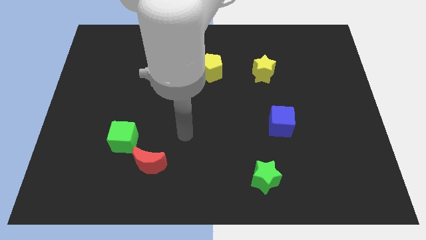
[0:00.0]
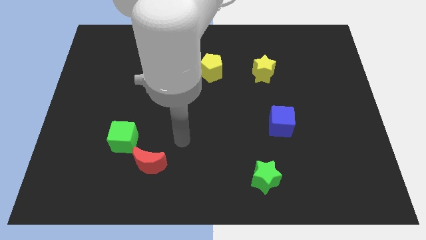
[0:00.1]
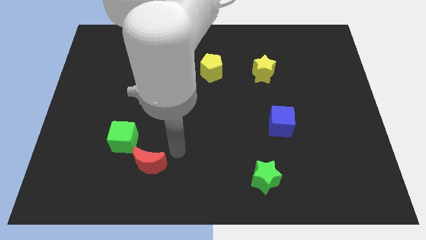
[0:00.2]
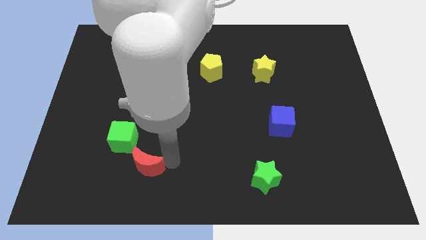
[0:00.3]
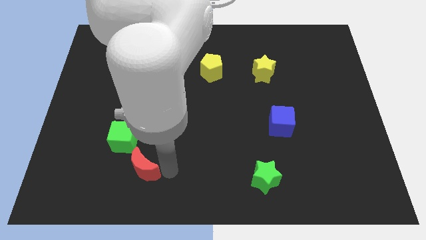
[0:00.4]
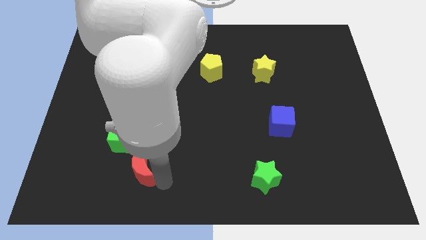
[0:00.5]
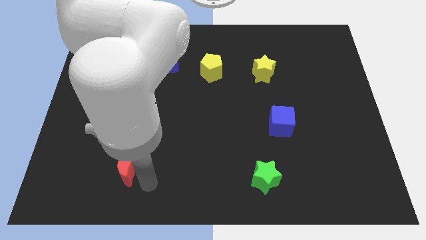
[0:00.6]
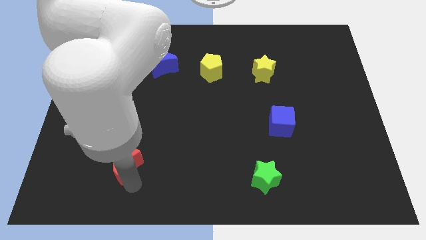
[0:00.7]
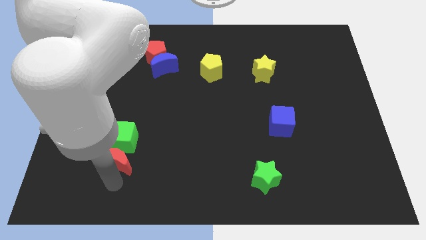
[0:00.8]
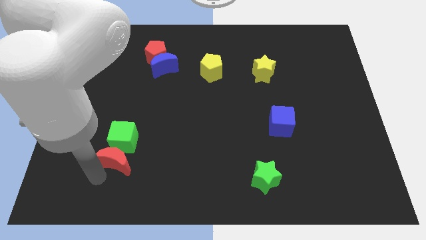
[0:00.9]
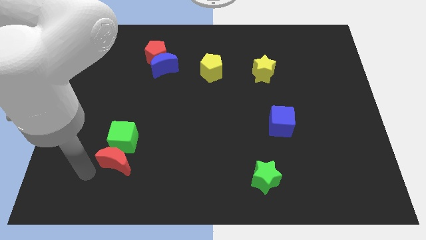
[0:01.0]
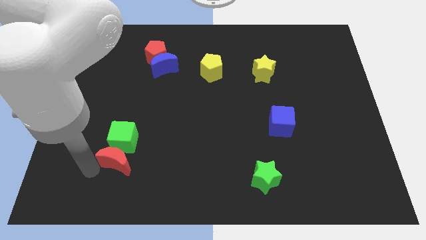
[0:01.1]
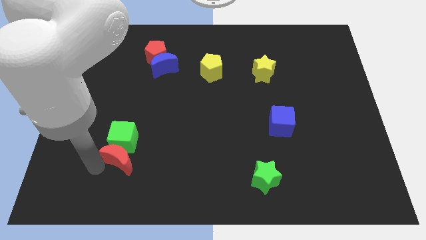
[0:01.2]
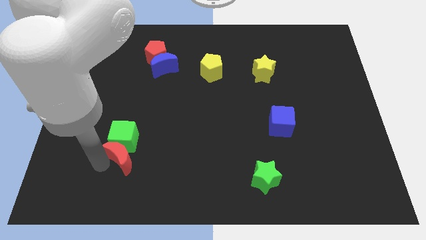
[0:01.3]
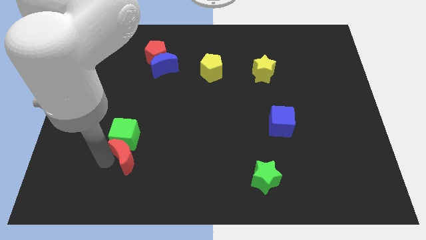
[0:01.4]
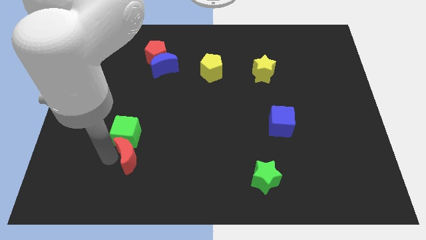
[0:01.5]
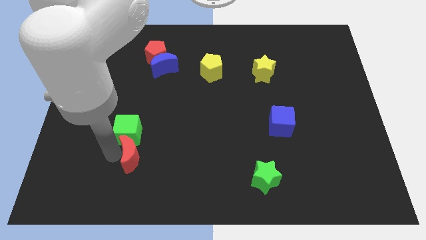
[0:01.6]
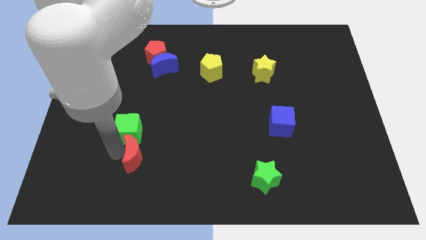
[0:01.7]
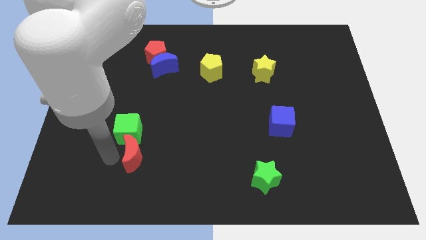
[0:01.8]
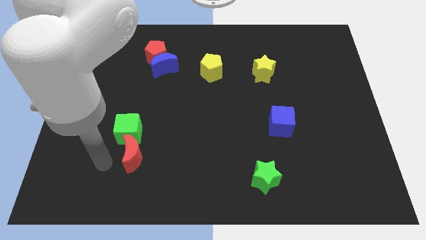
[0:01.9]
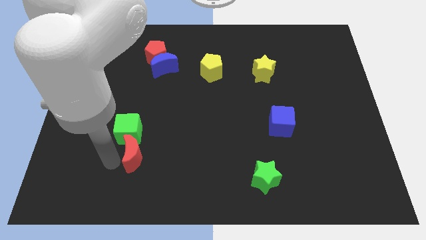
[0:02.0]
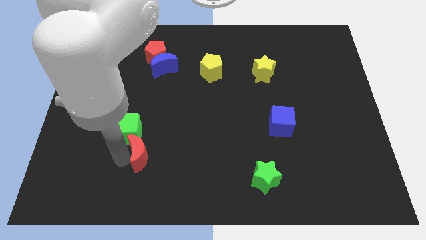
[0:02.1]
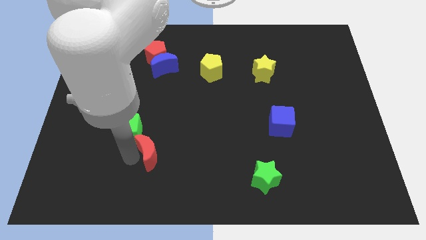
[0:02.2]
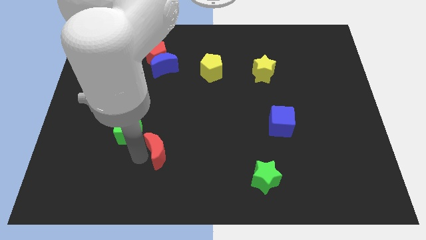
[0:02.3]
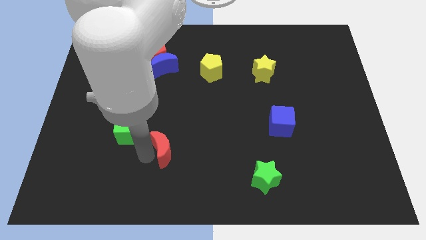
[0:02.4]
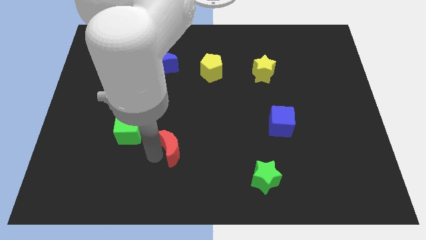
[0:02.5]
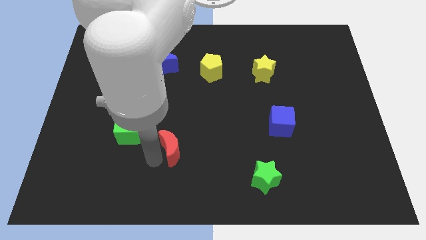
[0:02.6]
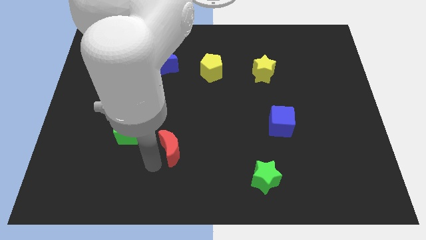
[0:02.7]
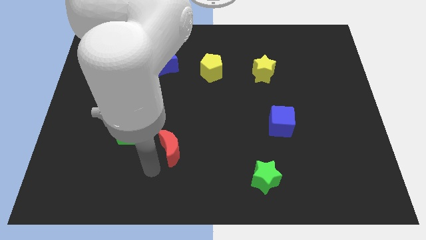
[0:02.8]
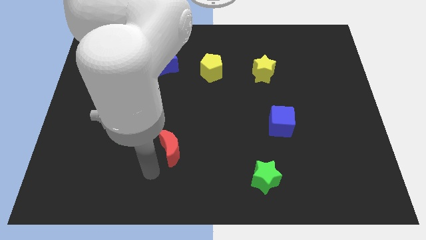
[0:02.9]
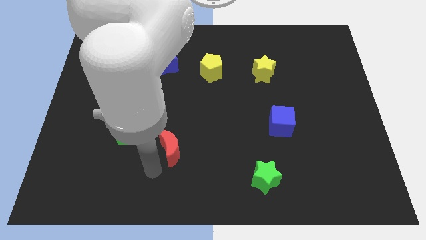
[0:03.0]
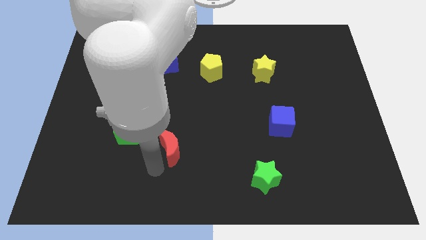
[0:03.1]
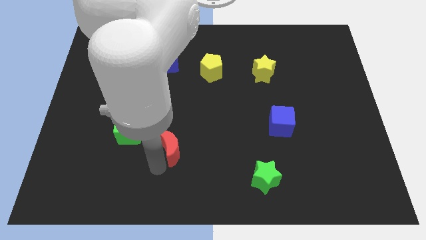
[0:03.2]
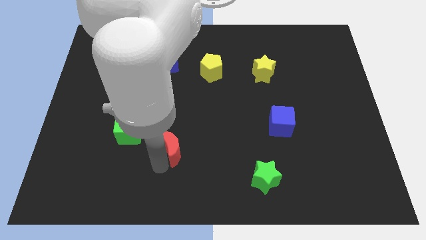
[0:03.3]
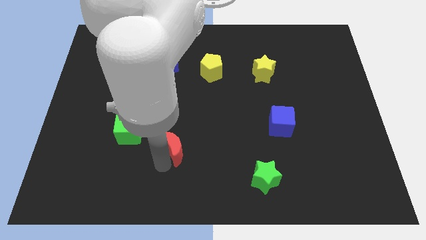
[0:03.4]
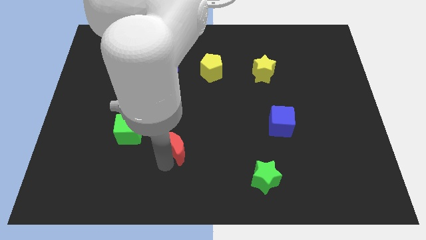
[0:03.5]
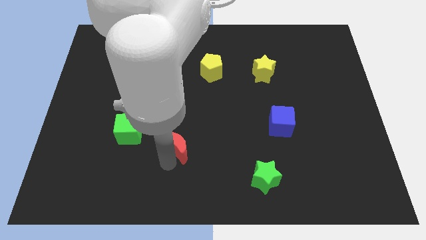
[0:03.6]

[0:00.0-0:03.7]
slightly move the red moon up and right

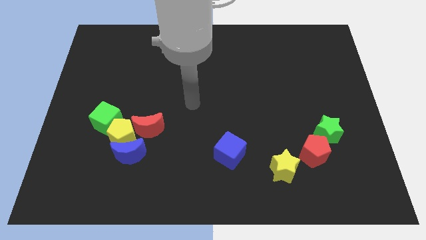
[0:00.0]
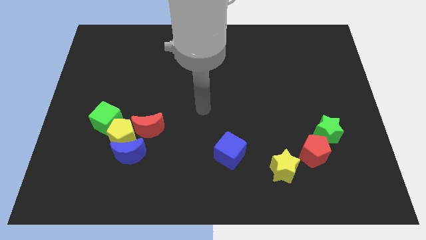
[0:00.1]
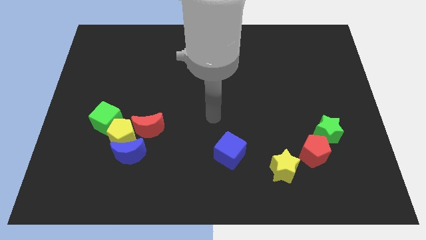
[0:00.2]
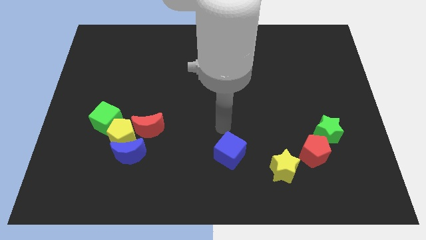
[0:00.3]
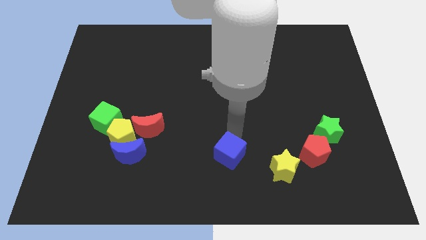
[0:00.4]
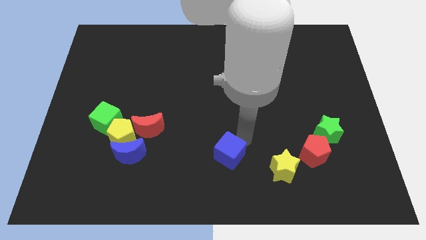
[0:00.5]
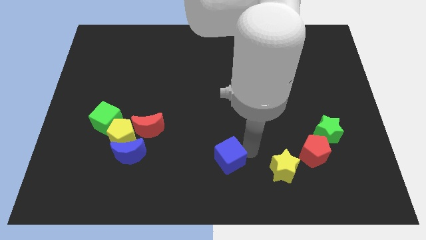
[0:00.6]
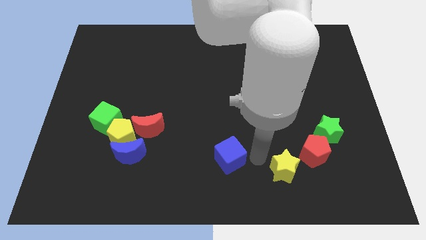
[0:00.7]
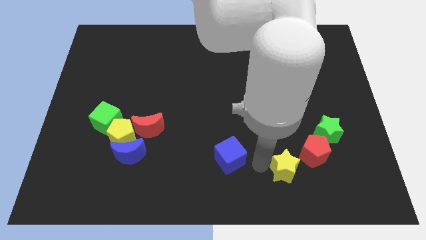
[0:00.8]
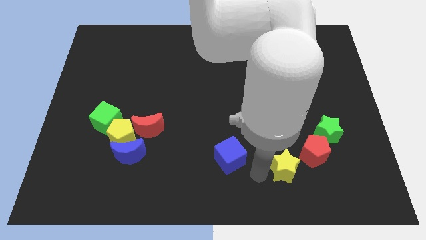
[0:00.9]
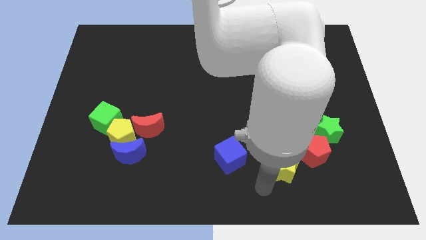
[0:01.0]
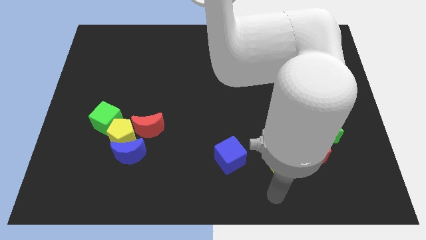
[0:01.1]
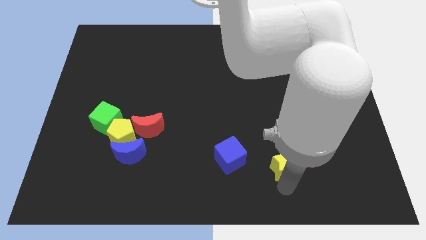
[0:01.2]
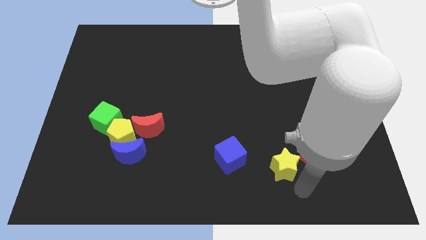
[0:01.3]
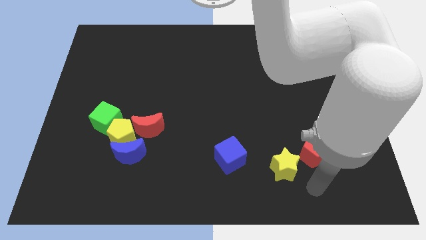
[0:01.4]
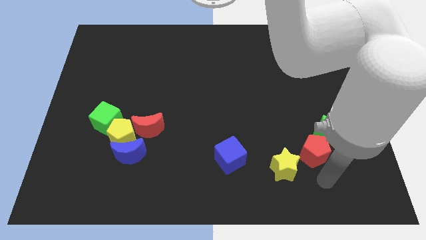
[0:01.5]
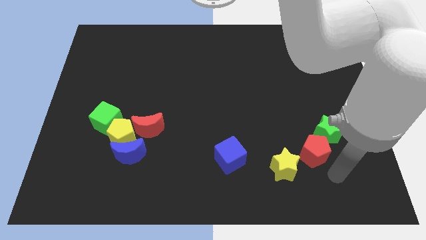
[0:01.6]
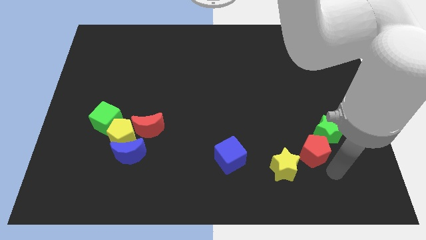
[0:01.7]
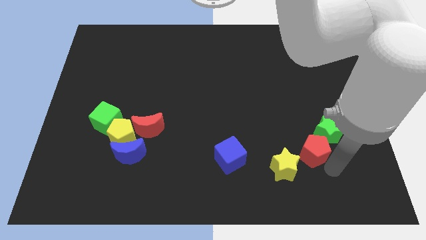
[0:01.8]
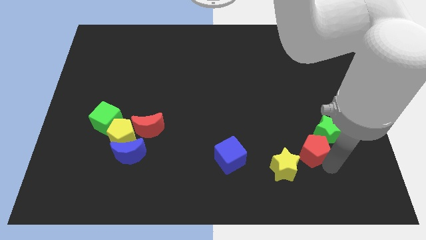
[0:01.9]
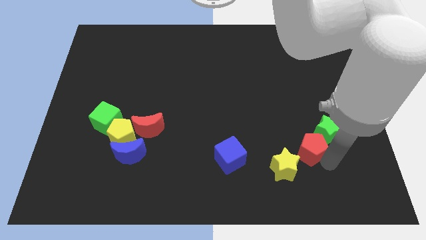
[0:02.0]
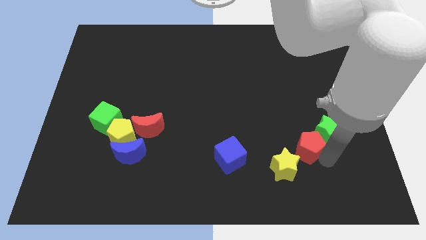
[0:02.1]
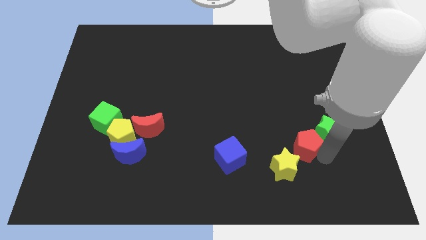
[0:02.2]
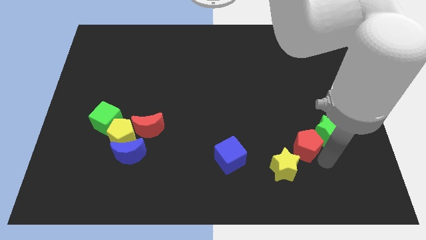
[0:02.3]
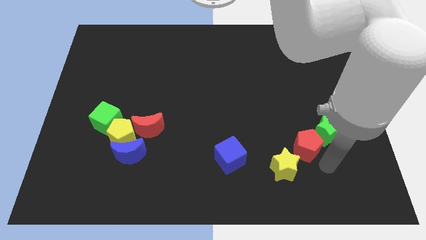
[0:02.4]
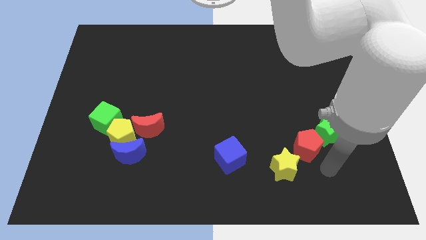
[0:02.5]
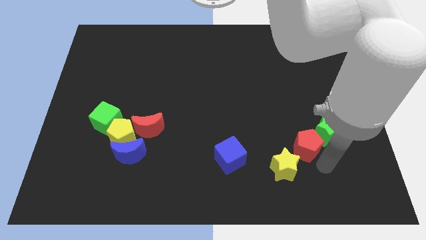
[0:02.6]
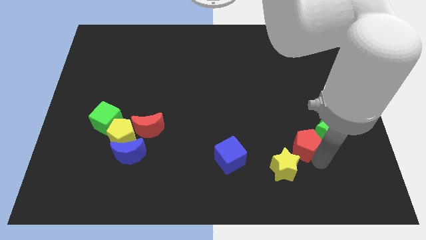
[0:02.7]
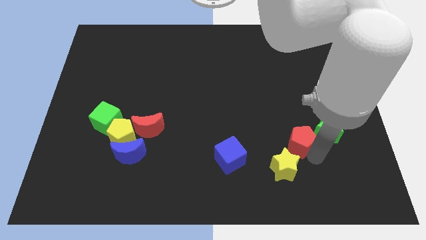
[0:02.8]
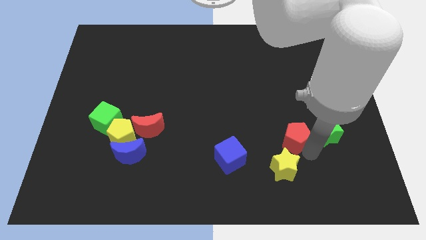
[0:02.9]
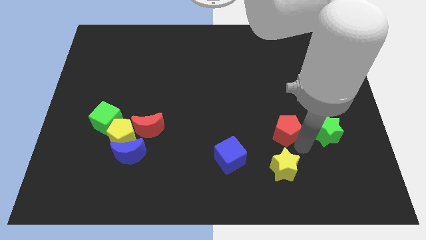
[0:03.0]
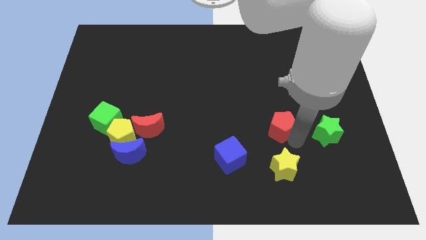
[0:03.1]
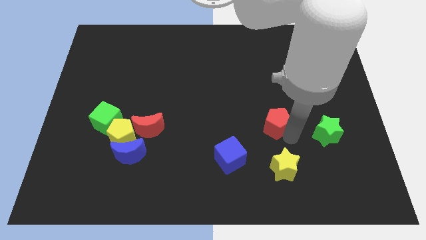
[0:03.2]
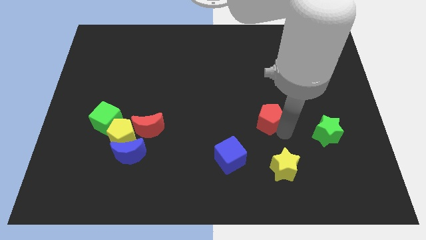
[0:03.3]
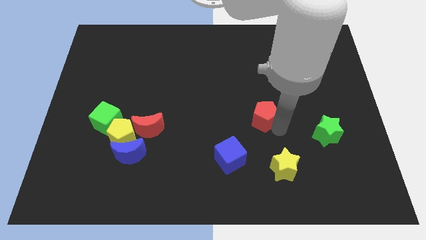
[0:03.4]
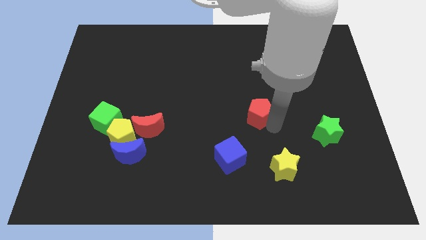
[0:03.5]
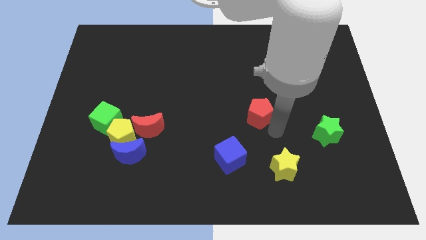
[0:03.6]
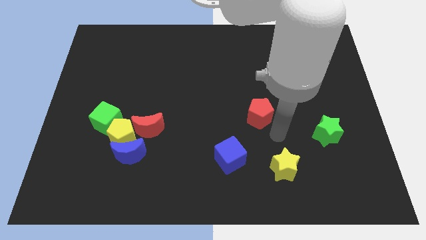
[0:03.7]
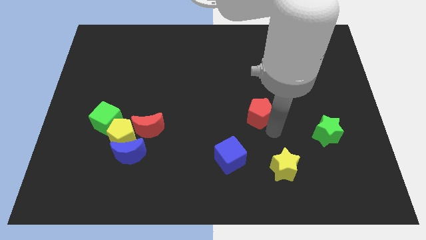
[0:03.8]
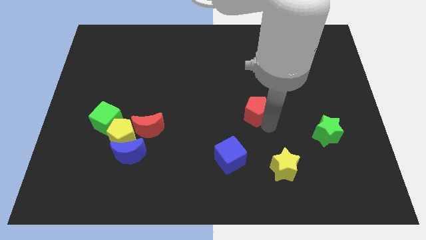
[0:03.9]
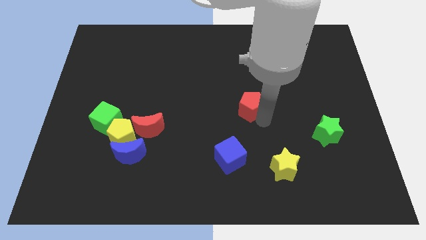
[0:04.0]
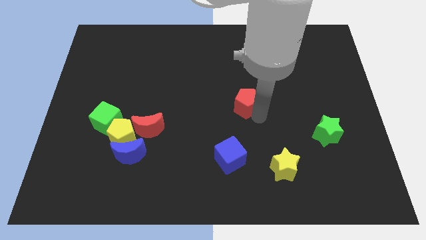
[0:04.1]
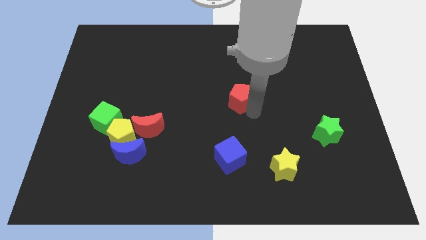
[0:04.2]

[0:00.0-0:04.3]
push the red pentagon upwards and then left
